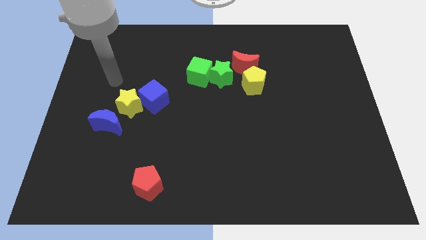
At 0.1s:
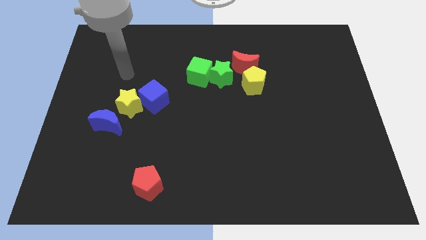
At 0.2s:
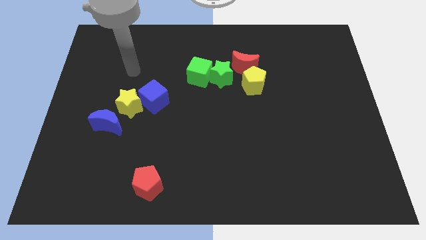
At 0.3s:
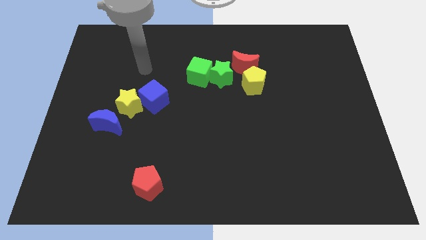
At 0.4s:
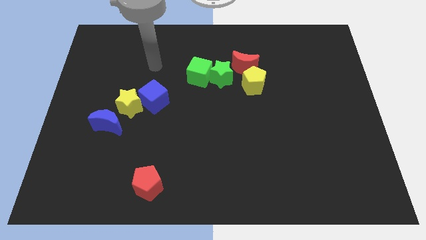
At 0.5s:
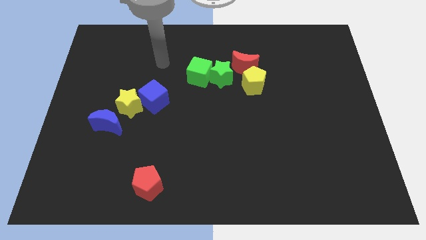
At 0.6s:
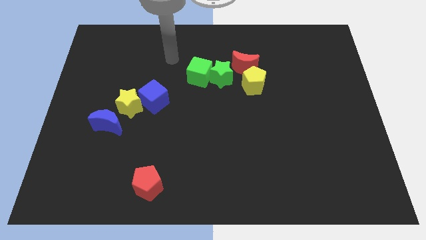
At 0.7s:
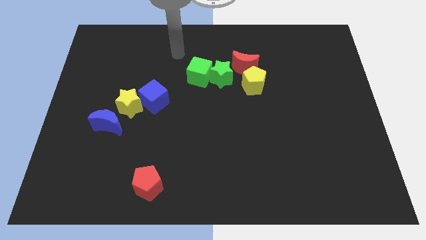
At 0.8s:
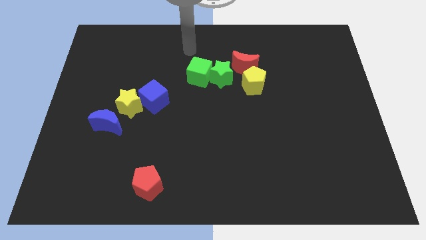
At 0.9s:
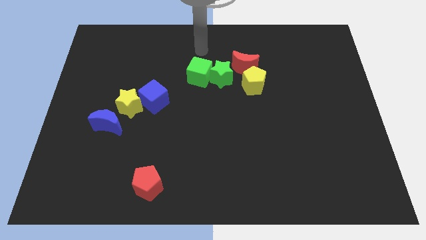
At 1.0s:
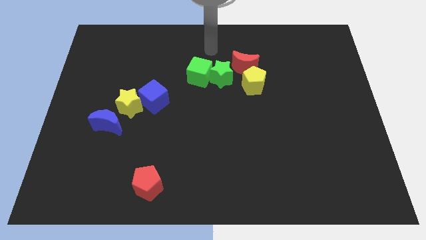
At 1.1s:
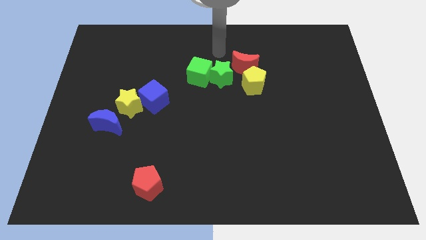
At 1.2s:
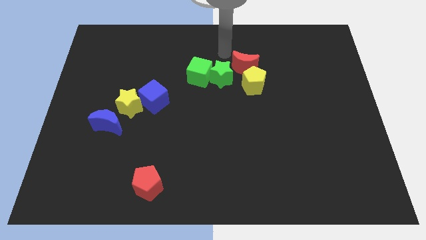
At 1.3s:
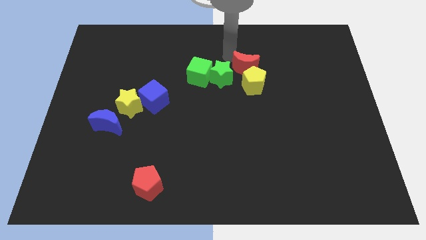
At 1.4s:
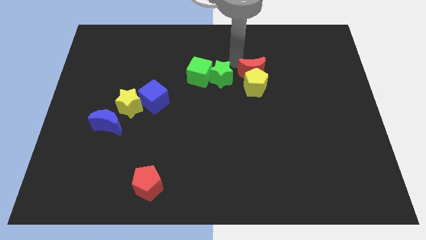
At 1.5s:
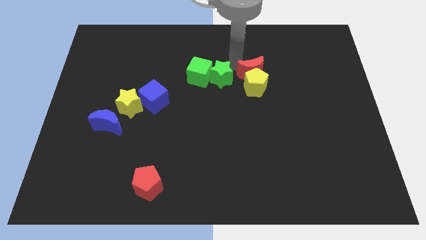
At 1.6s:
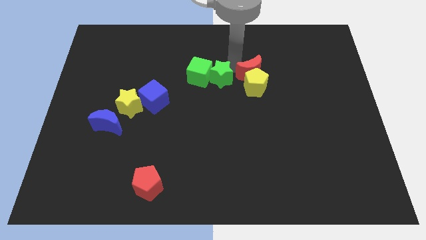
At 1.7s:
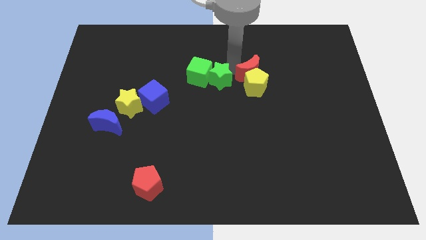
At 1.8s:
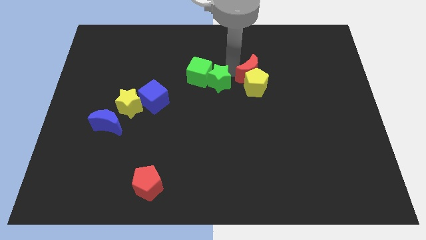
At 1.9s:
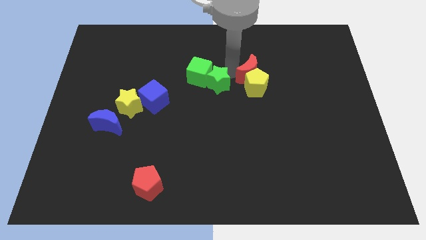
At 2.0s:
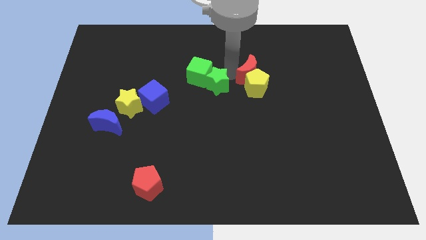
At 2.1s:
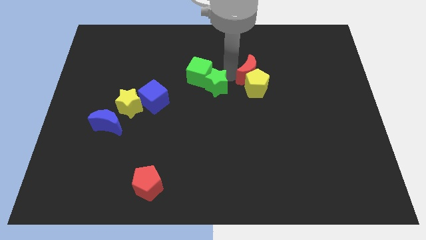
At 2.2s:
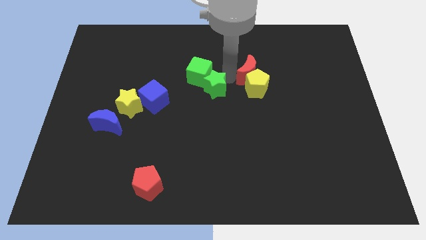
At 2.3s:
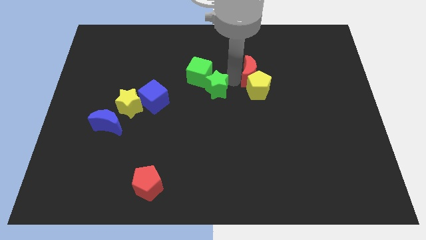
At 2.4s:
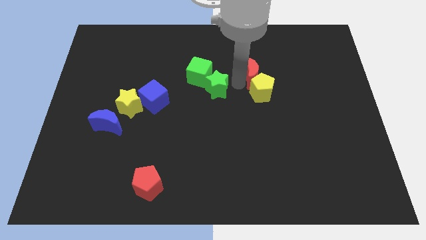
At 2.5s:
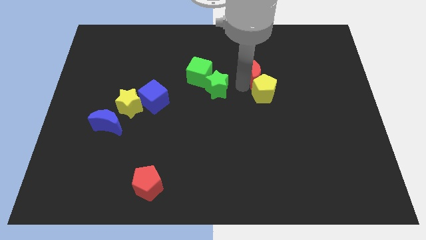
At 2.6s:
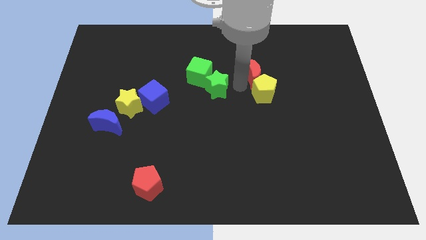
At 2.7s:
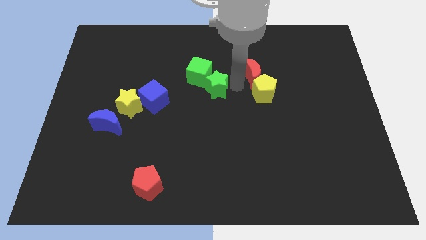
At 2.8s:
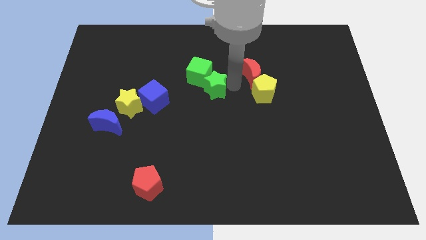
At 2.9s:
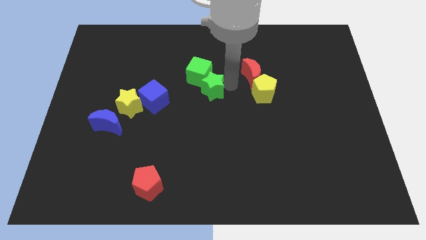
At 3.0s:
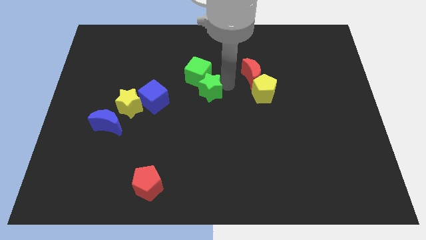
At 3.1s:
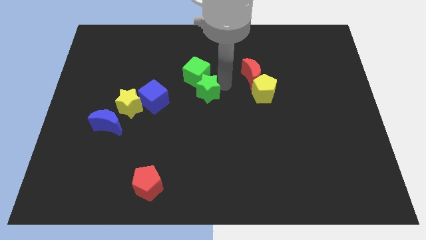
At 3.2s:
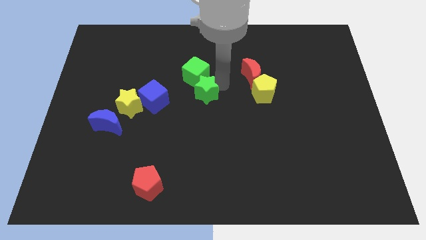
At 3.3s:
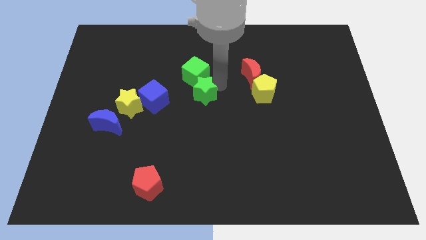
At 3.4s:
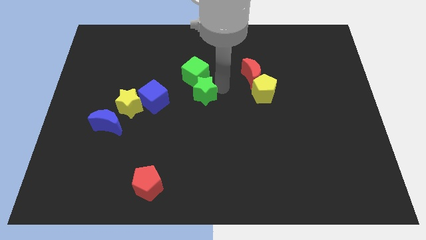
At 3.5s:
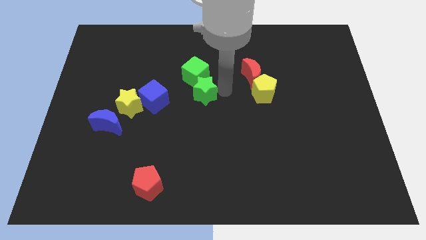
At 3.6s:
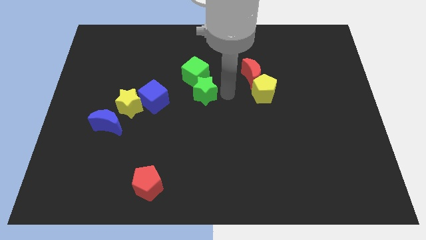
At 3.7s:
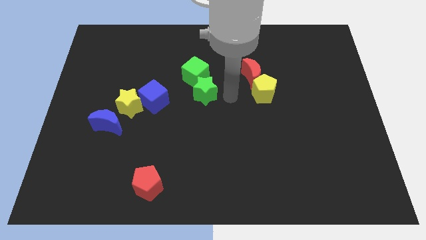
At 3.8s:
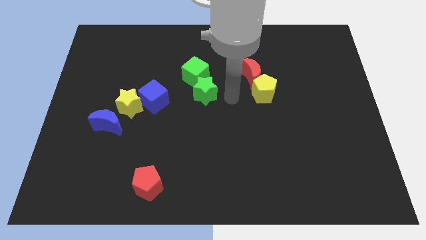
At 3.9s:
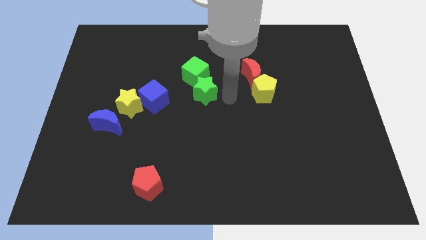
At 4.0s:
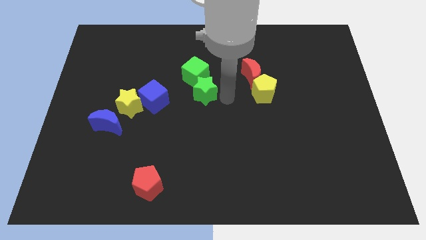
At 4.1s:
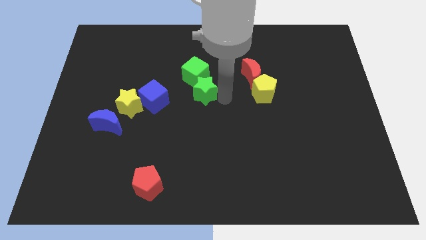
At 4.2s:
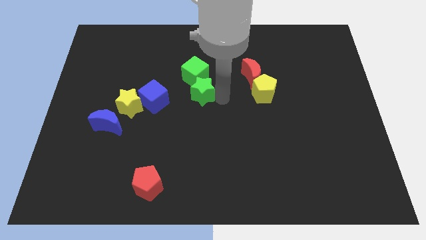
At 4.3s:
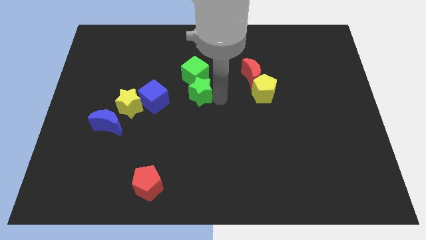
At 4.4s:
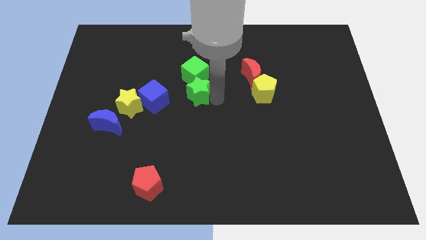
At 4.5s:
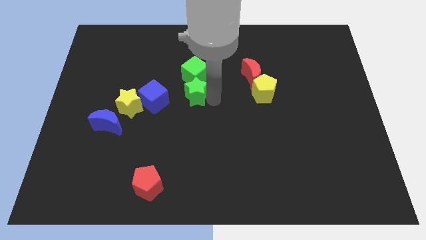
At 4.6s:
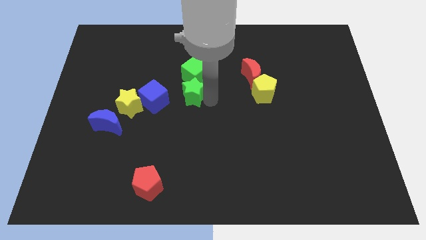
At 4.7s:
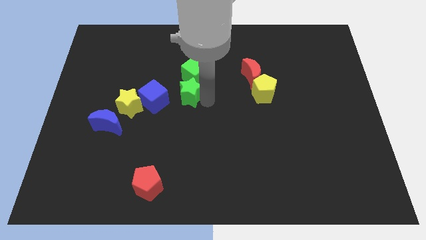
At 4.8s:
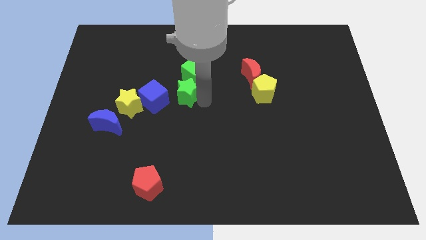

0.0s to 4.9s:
push the green star to the top right side of the blue cube

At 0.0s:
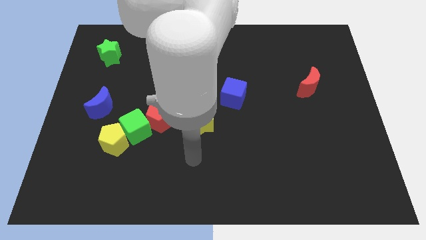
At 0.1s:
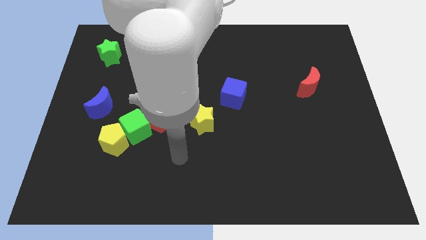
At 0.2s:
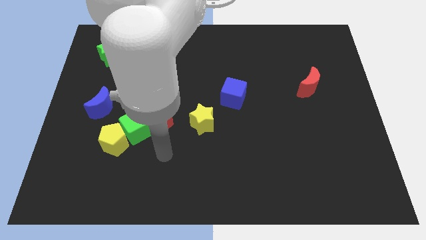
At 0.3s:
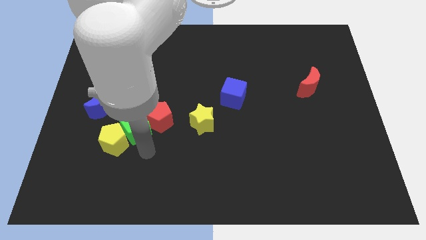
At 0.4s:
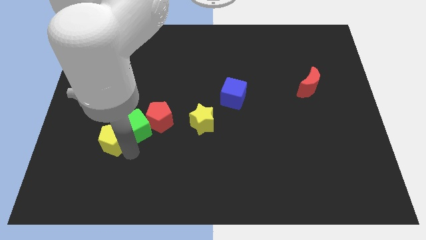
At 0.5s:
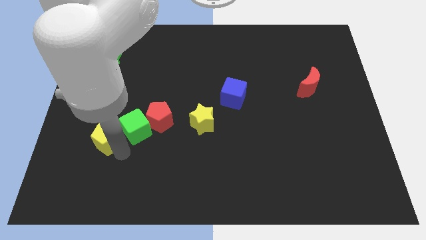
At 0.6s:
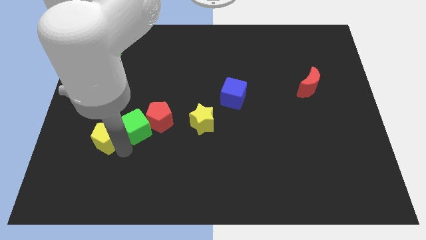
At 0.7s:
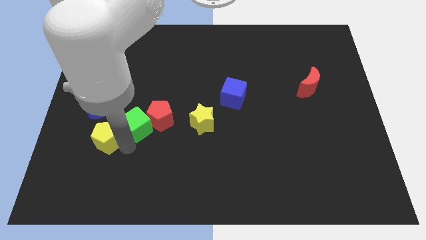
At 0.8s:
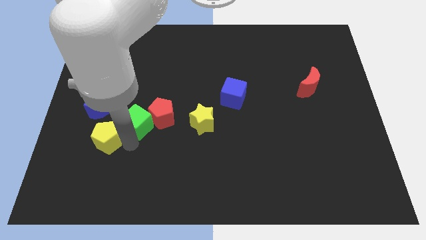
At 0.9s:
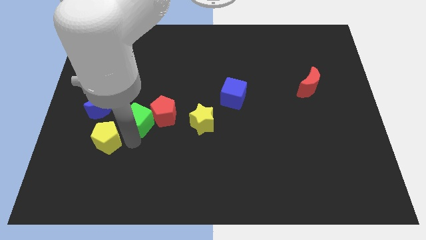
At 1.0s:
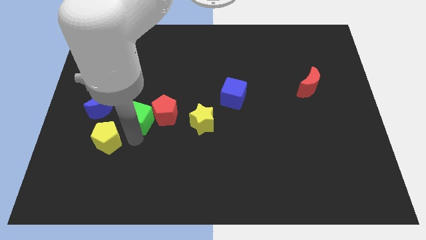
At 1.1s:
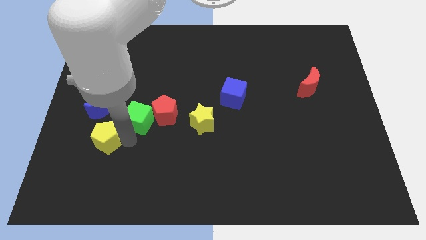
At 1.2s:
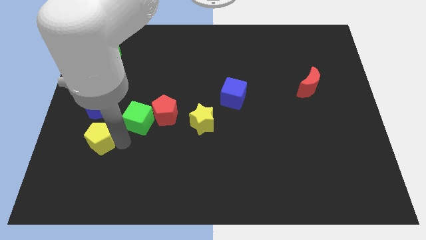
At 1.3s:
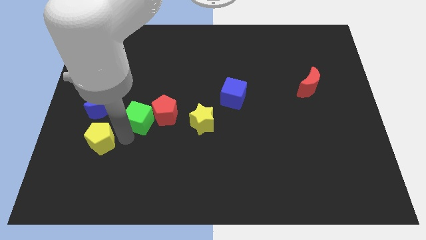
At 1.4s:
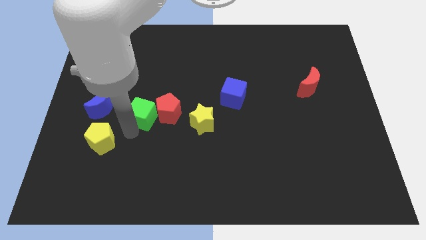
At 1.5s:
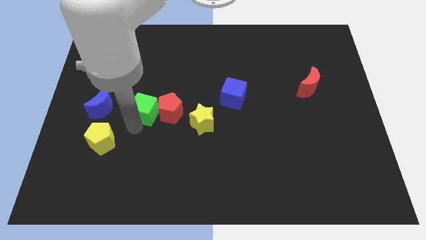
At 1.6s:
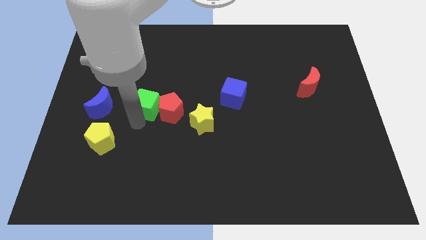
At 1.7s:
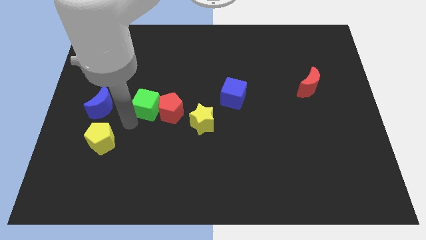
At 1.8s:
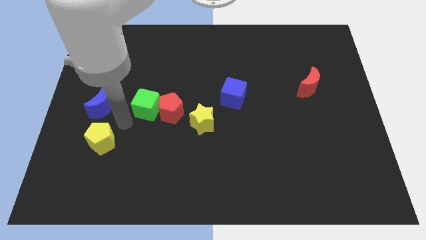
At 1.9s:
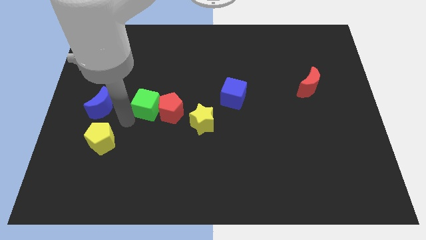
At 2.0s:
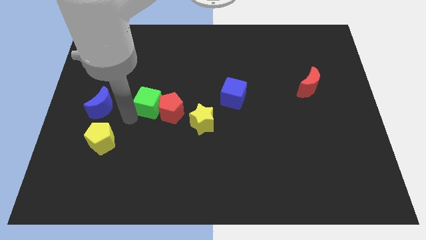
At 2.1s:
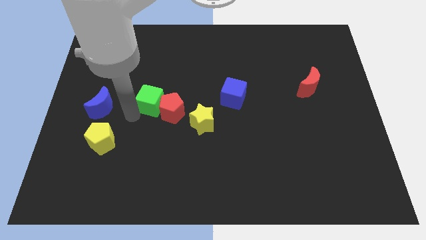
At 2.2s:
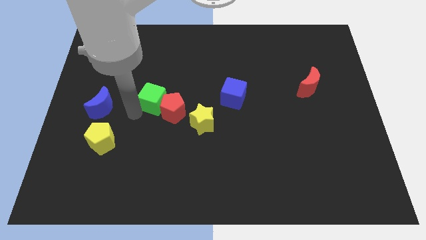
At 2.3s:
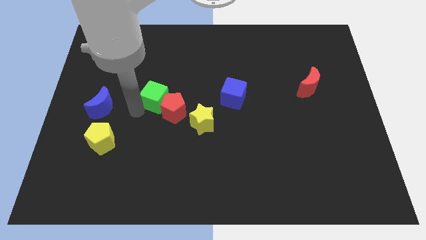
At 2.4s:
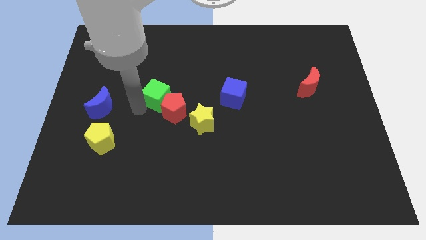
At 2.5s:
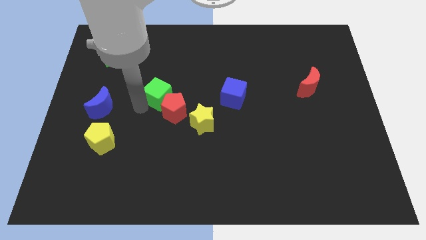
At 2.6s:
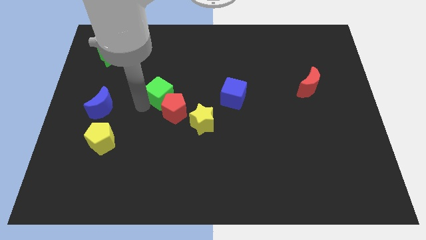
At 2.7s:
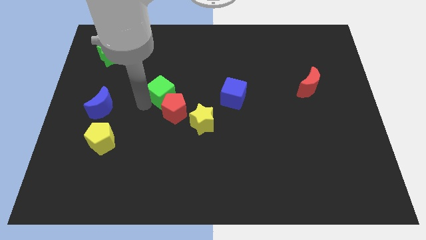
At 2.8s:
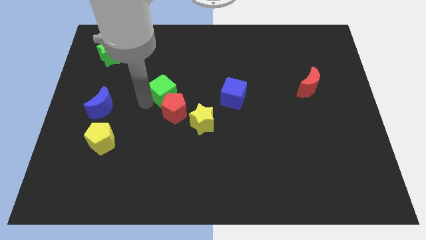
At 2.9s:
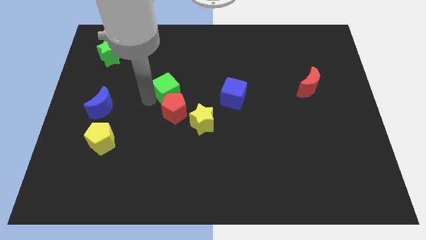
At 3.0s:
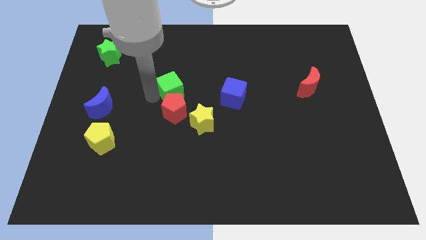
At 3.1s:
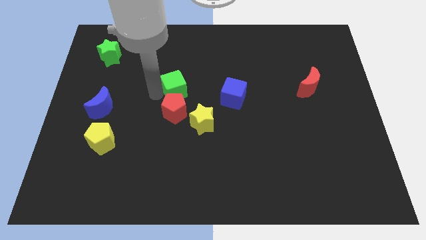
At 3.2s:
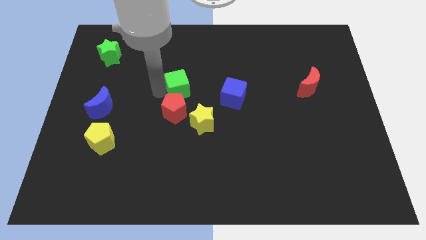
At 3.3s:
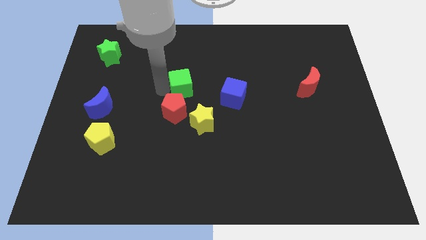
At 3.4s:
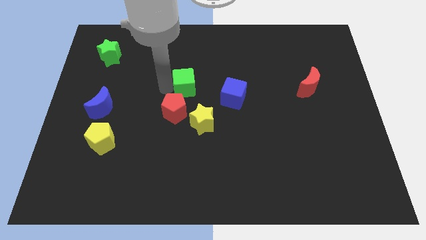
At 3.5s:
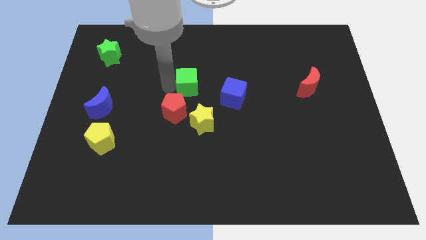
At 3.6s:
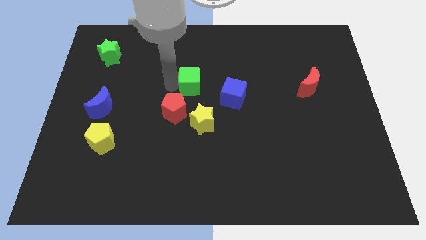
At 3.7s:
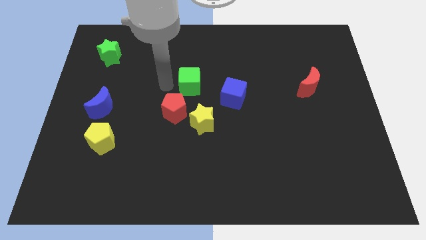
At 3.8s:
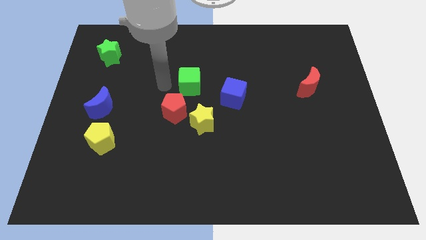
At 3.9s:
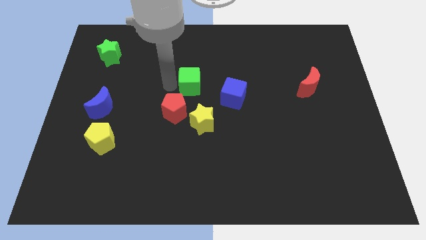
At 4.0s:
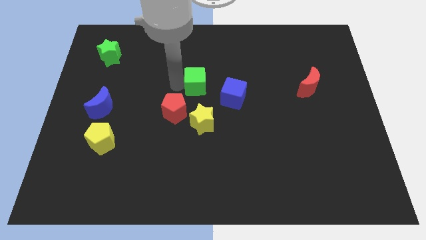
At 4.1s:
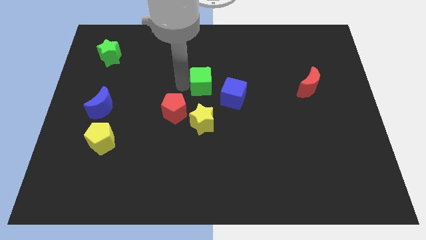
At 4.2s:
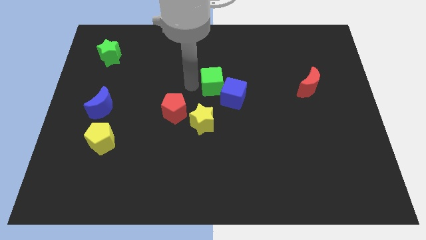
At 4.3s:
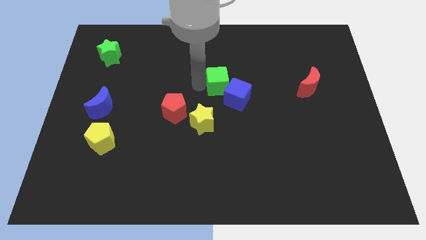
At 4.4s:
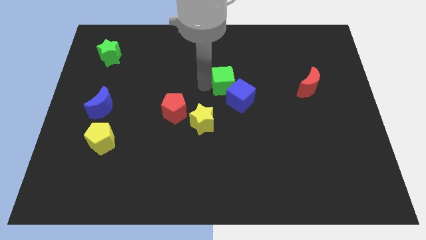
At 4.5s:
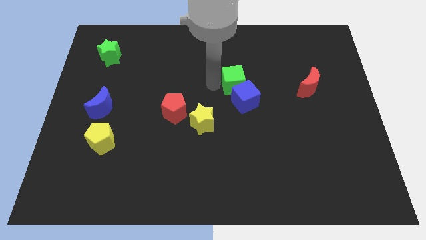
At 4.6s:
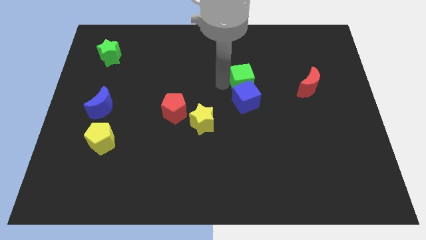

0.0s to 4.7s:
move the green cube to the top right of the blue cube
